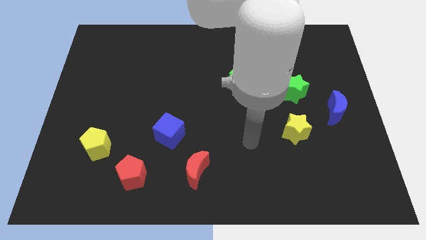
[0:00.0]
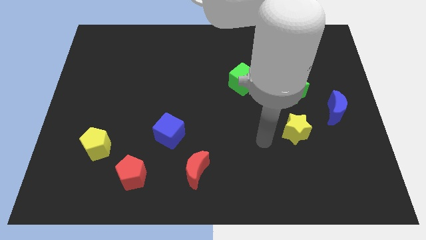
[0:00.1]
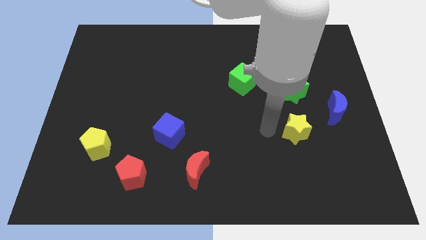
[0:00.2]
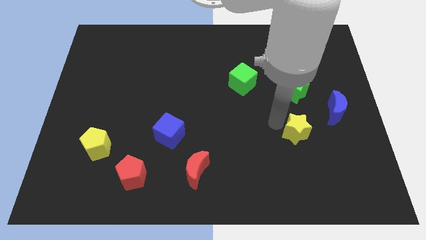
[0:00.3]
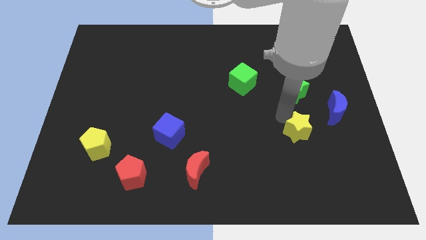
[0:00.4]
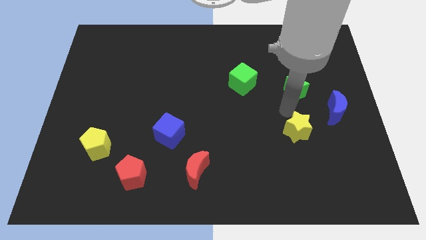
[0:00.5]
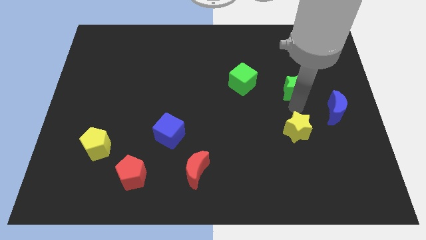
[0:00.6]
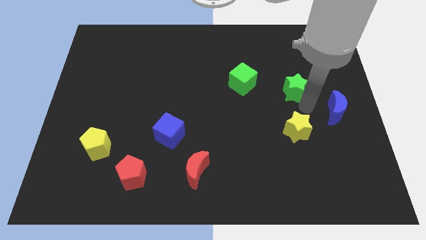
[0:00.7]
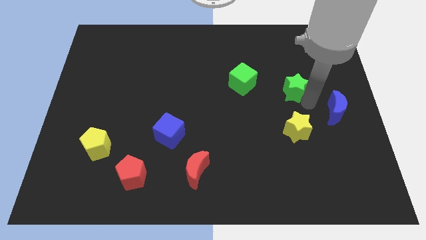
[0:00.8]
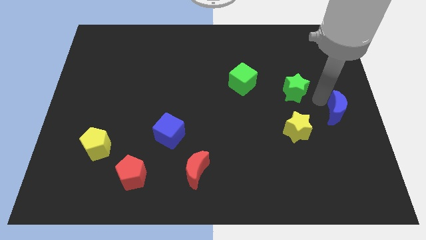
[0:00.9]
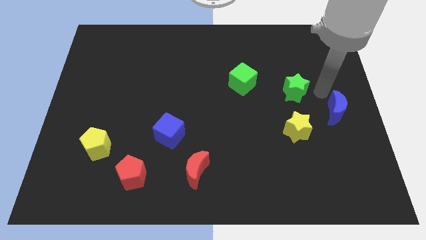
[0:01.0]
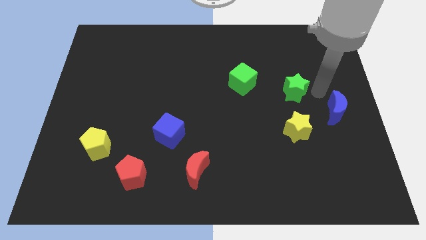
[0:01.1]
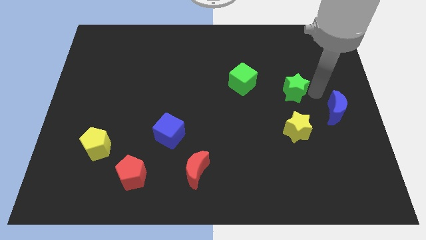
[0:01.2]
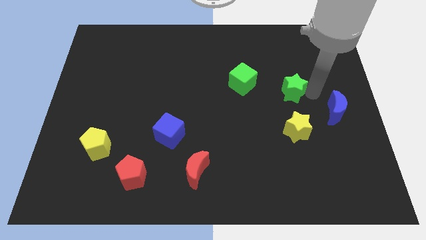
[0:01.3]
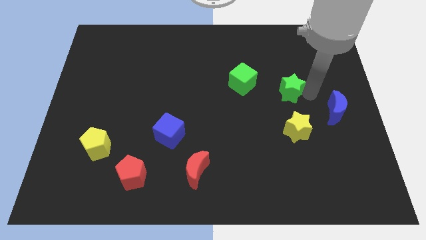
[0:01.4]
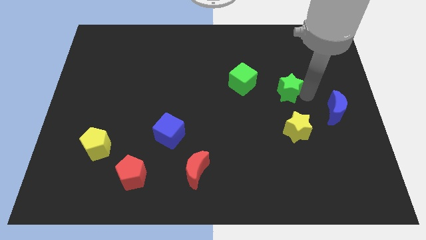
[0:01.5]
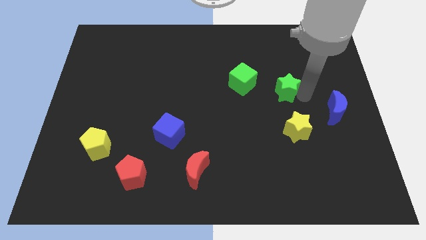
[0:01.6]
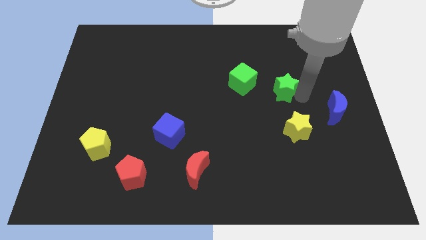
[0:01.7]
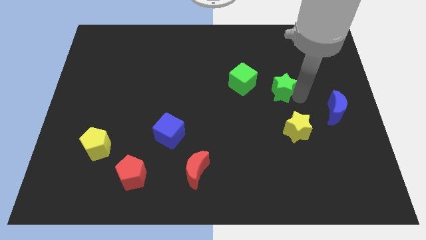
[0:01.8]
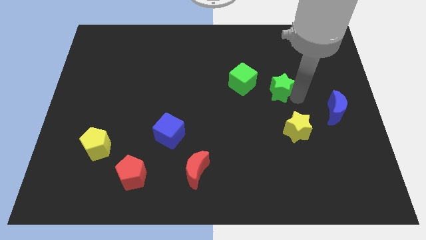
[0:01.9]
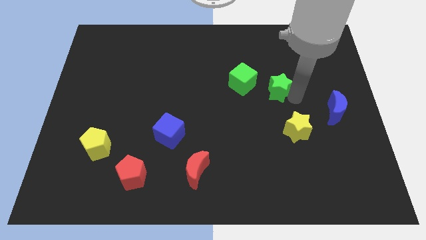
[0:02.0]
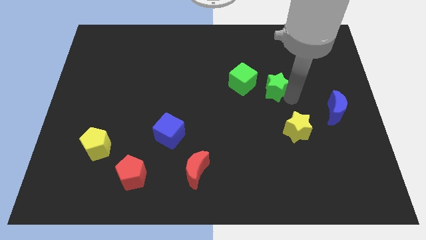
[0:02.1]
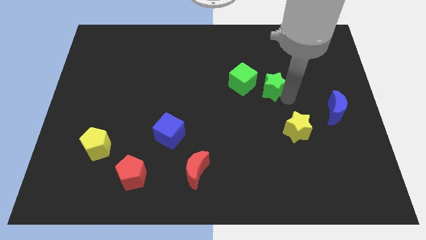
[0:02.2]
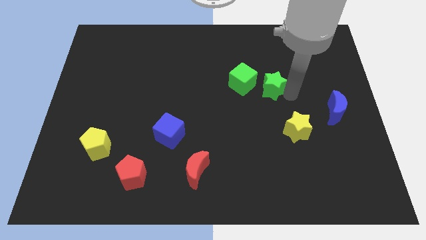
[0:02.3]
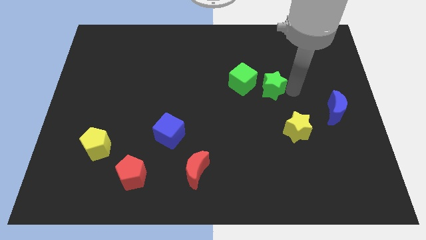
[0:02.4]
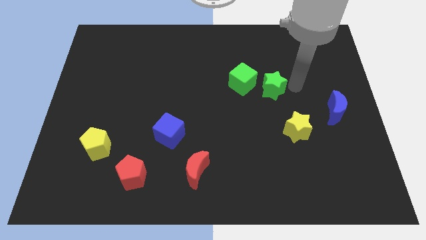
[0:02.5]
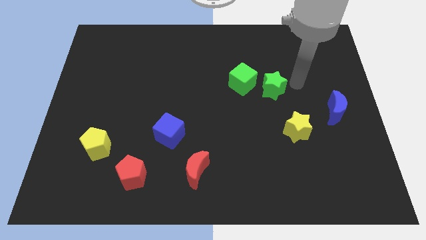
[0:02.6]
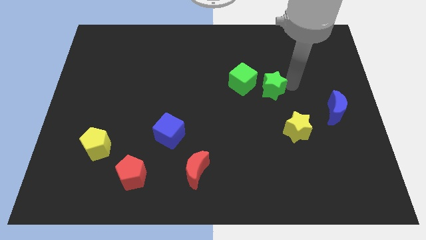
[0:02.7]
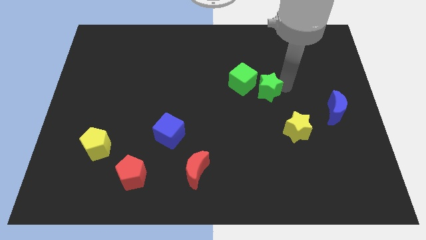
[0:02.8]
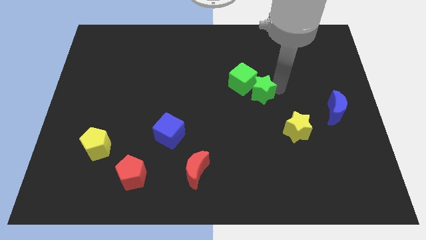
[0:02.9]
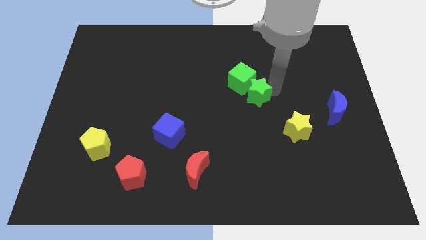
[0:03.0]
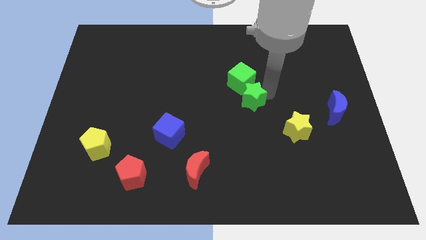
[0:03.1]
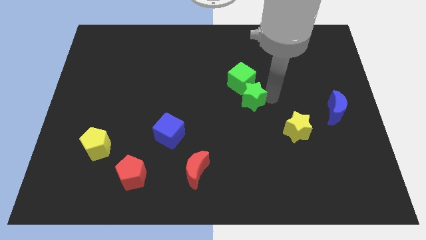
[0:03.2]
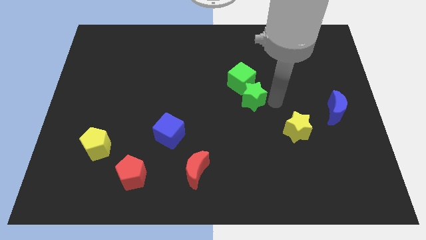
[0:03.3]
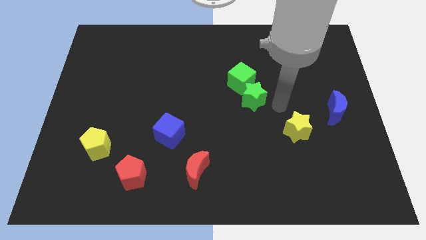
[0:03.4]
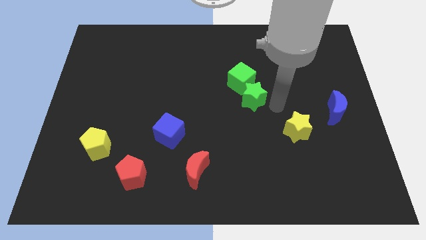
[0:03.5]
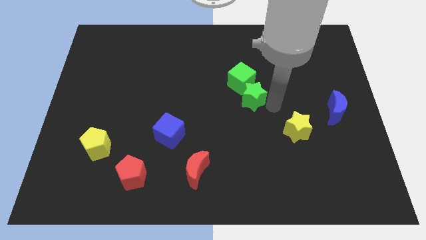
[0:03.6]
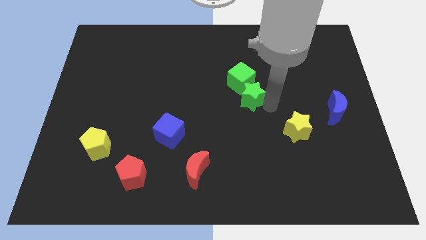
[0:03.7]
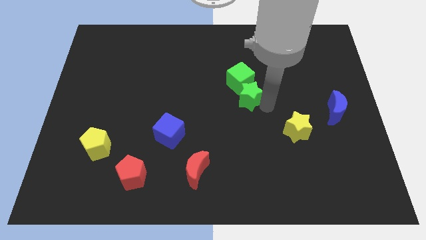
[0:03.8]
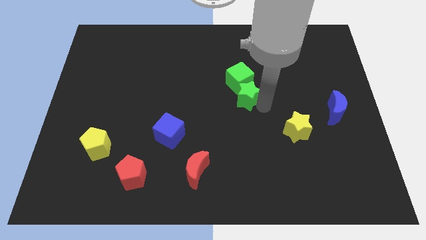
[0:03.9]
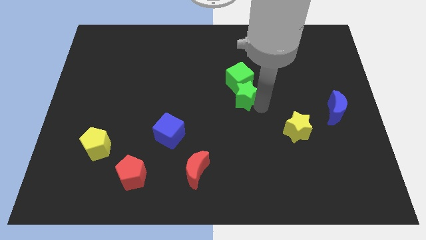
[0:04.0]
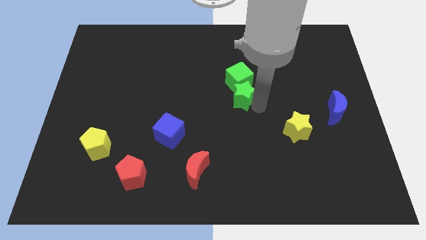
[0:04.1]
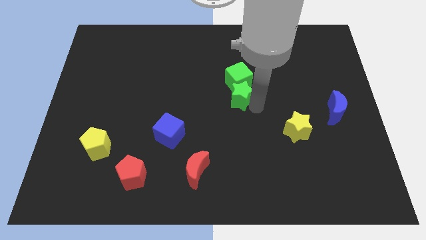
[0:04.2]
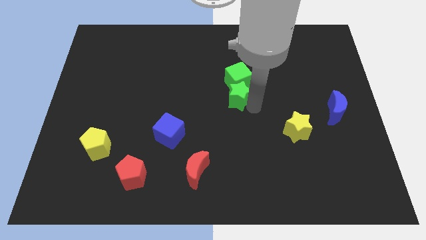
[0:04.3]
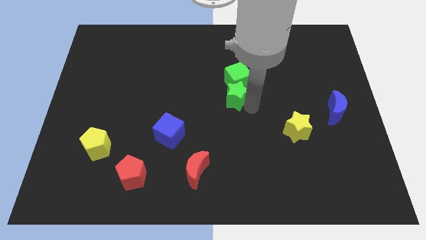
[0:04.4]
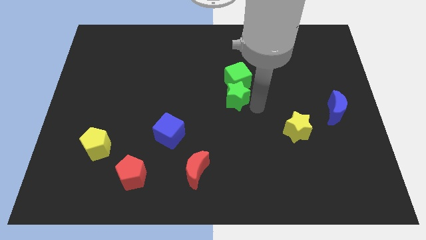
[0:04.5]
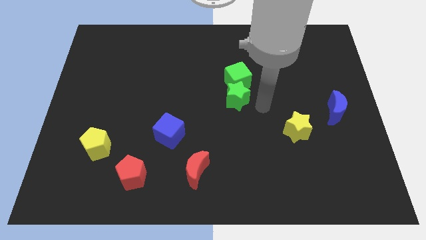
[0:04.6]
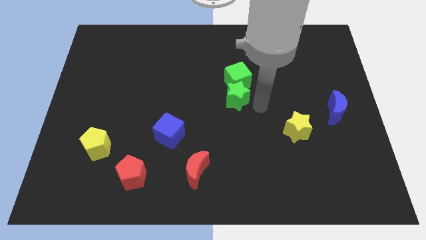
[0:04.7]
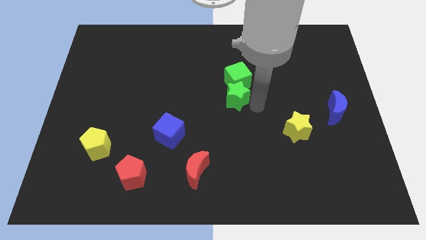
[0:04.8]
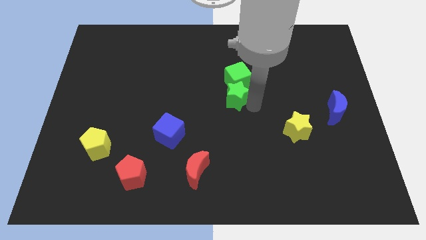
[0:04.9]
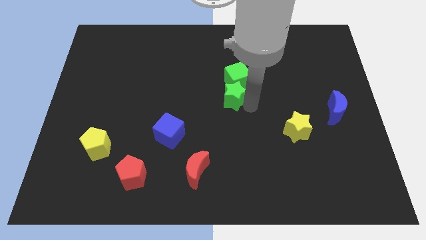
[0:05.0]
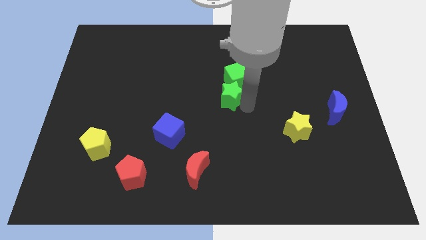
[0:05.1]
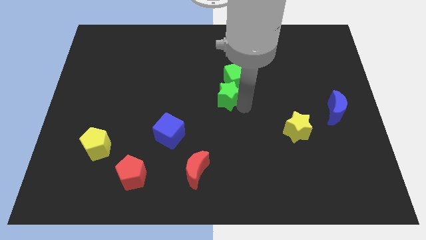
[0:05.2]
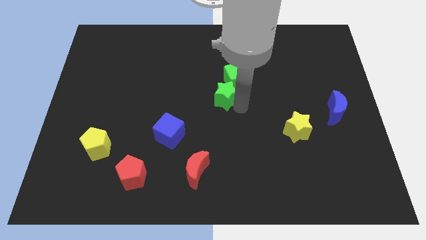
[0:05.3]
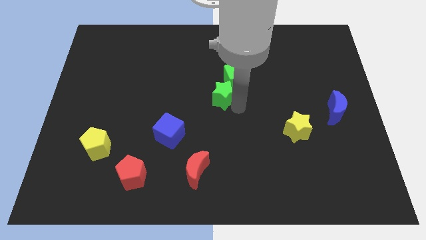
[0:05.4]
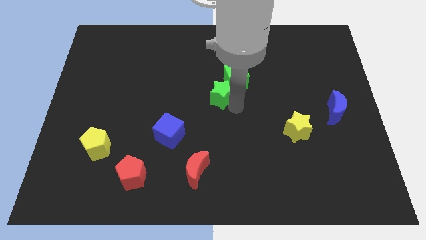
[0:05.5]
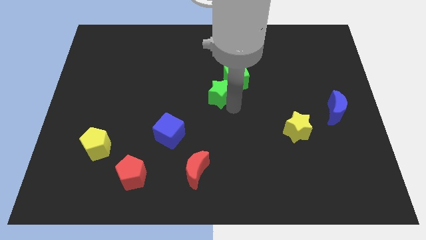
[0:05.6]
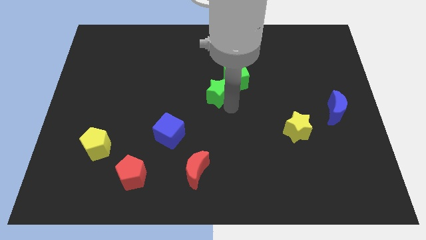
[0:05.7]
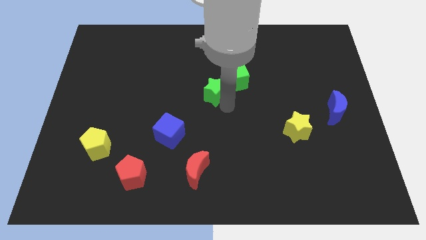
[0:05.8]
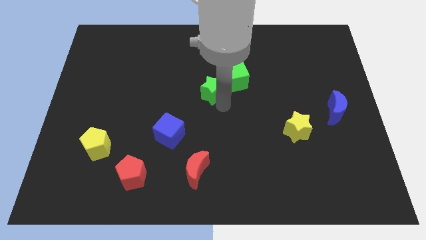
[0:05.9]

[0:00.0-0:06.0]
move the green star to the left

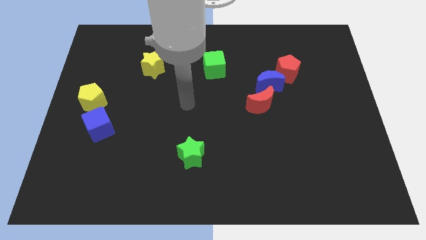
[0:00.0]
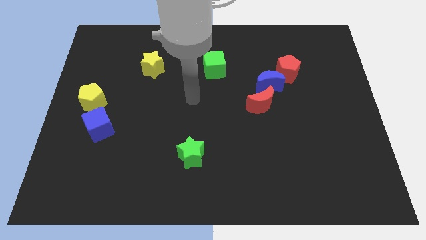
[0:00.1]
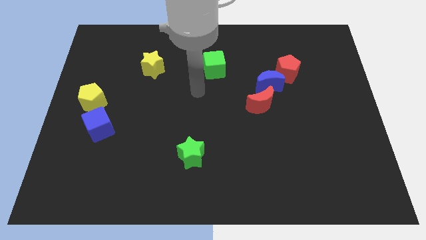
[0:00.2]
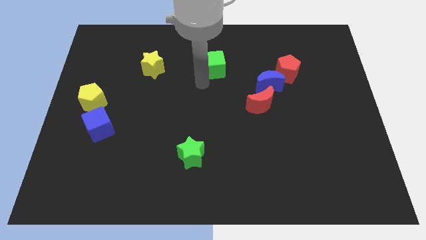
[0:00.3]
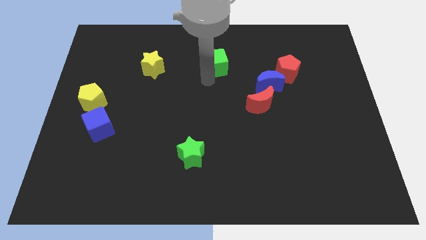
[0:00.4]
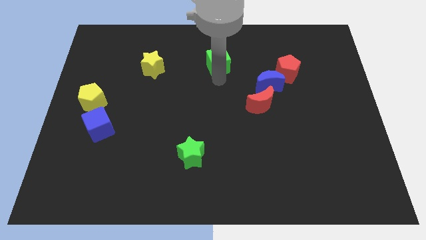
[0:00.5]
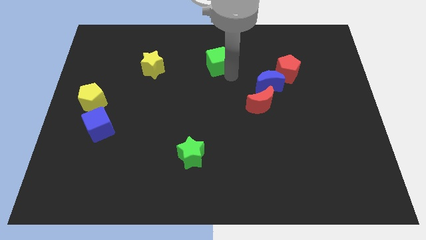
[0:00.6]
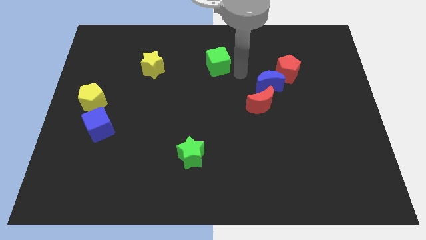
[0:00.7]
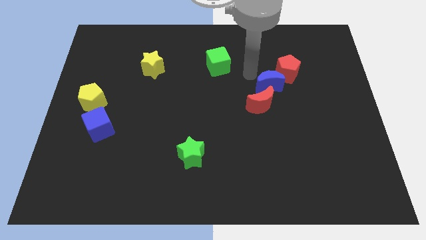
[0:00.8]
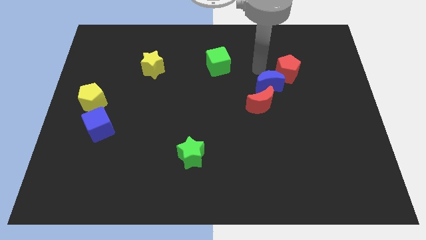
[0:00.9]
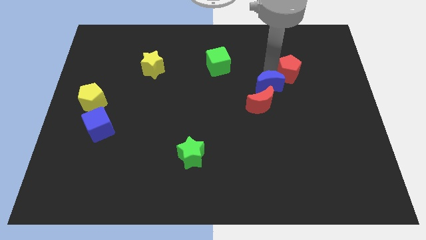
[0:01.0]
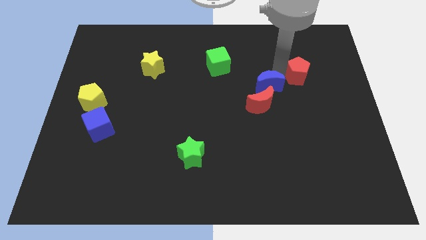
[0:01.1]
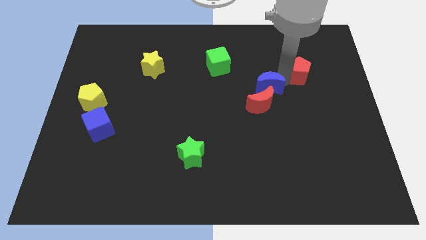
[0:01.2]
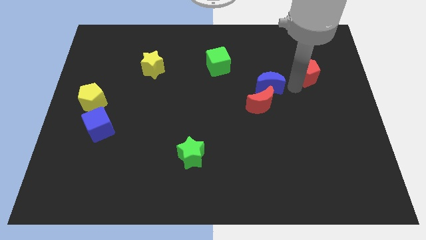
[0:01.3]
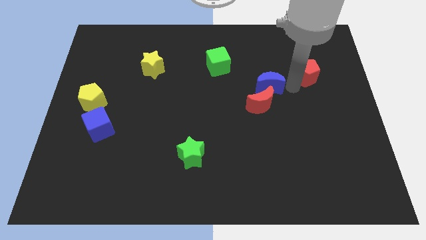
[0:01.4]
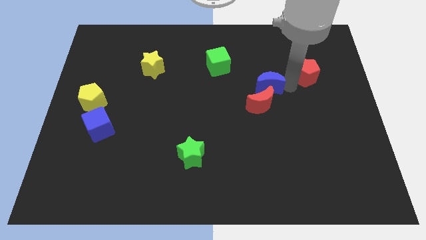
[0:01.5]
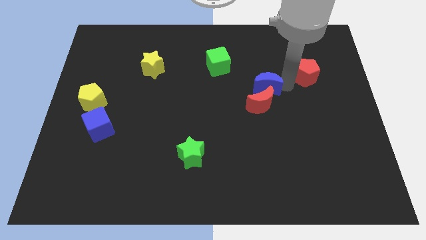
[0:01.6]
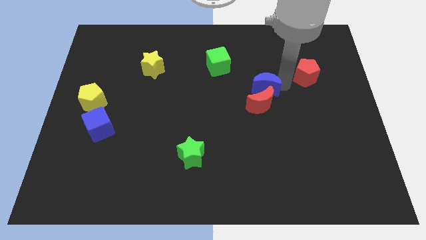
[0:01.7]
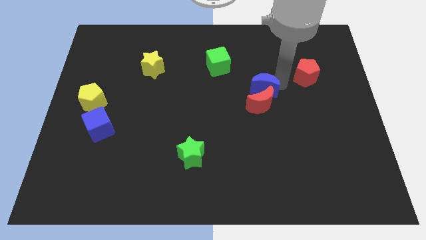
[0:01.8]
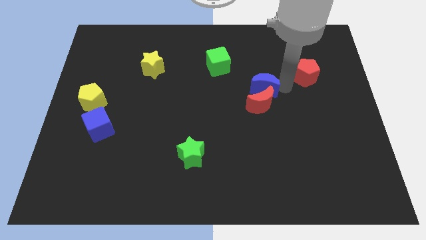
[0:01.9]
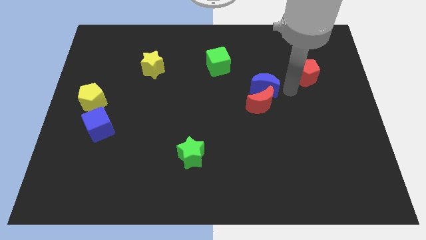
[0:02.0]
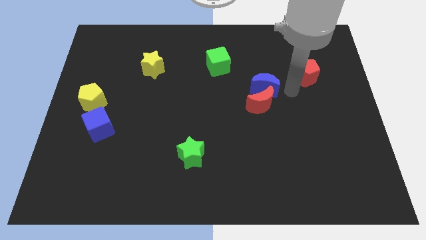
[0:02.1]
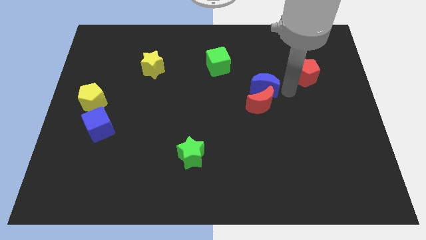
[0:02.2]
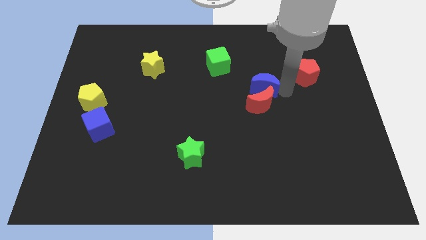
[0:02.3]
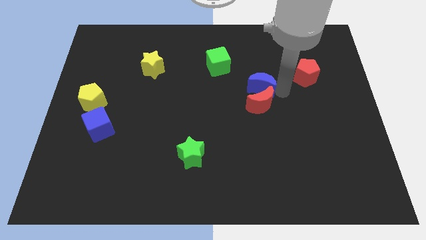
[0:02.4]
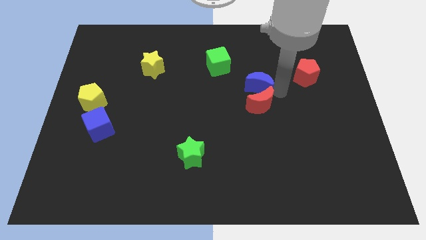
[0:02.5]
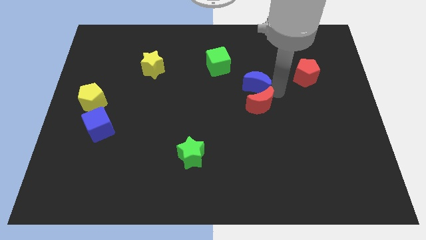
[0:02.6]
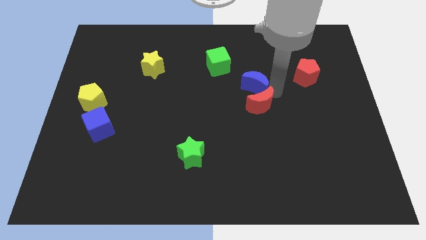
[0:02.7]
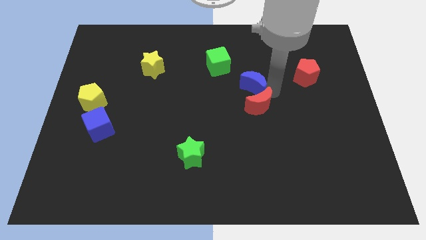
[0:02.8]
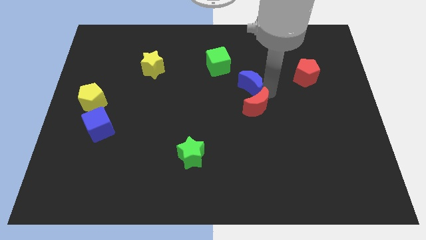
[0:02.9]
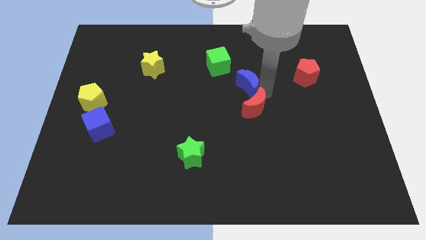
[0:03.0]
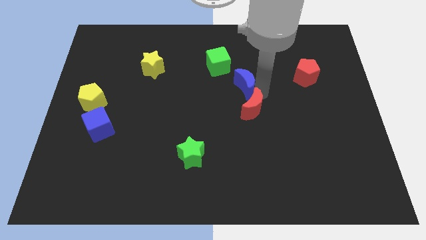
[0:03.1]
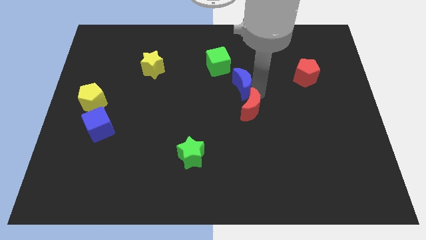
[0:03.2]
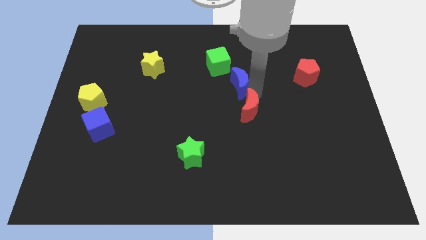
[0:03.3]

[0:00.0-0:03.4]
slightly push the blue moon left
